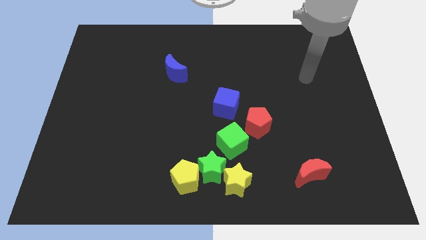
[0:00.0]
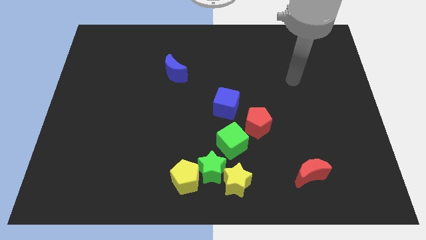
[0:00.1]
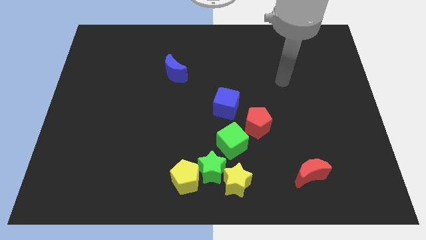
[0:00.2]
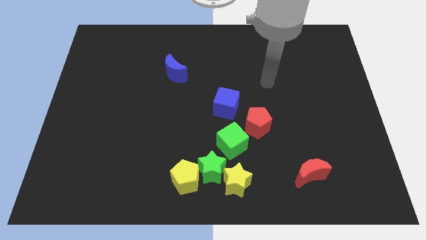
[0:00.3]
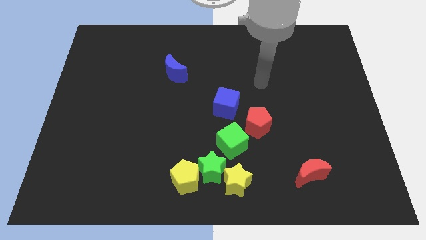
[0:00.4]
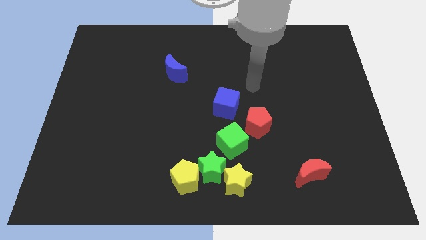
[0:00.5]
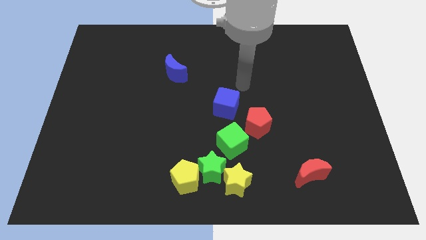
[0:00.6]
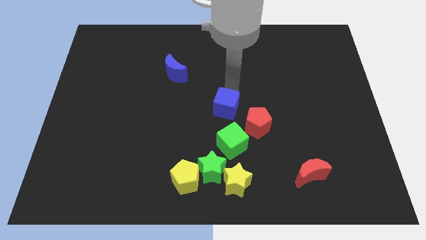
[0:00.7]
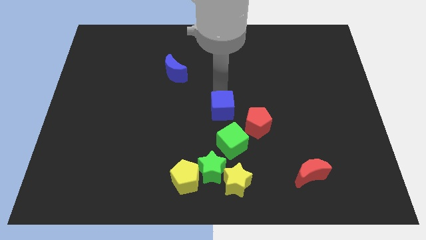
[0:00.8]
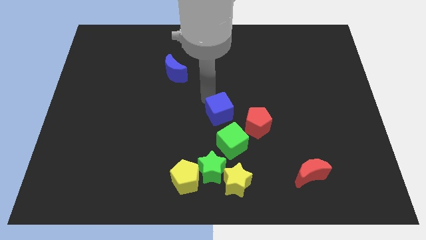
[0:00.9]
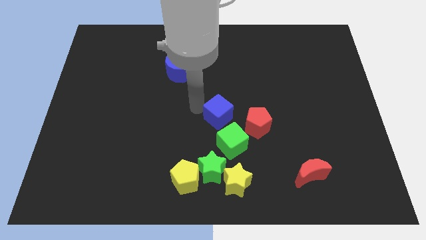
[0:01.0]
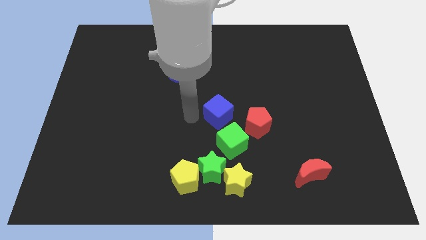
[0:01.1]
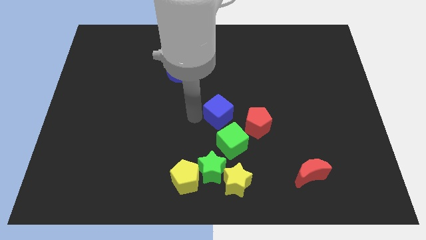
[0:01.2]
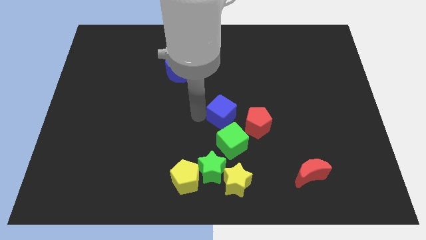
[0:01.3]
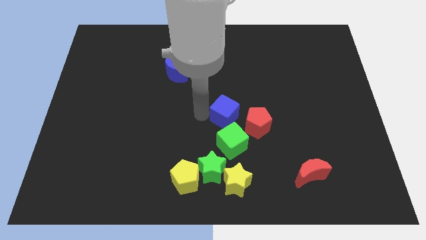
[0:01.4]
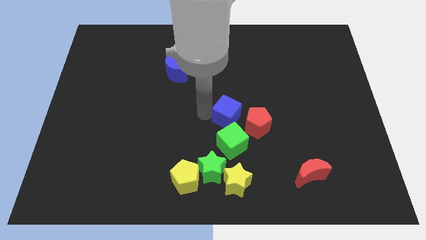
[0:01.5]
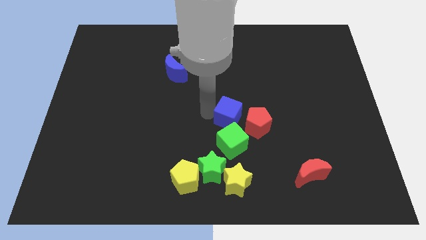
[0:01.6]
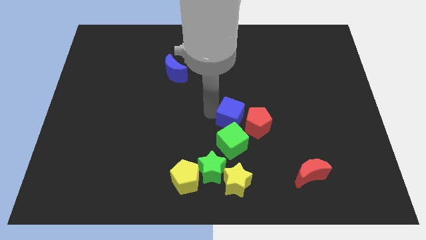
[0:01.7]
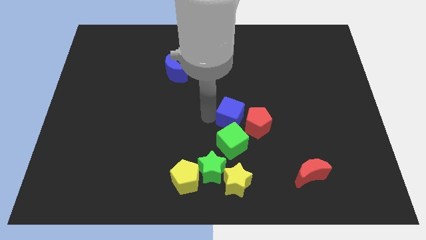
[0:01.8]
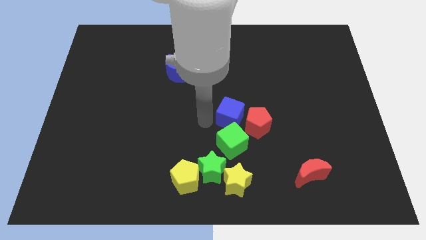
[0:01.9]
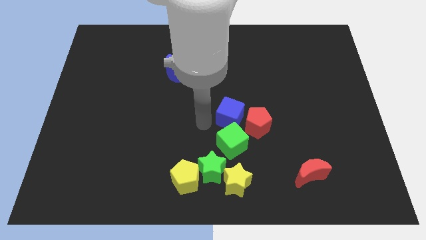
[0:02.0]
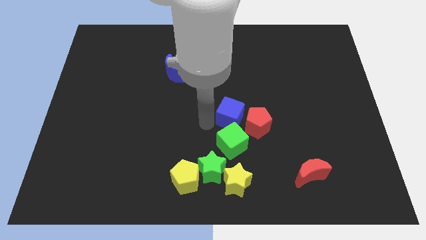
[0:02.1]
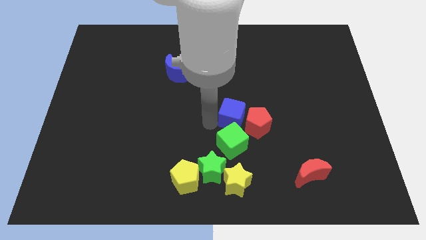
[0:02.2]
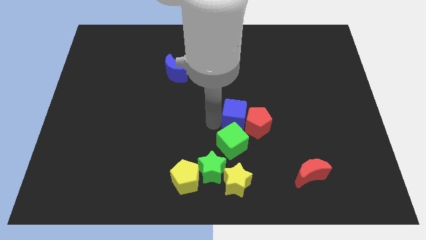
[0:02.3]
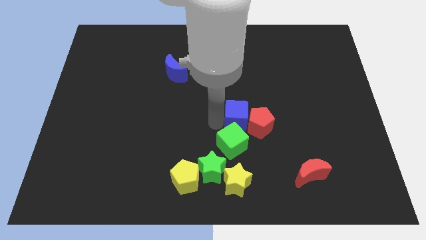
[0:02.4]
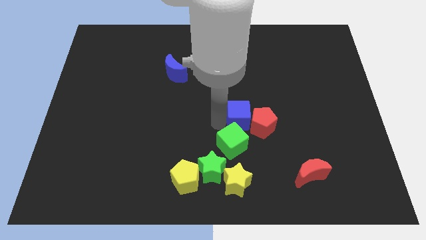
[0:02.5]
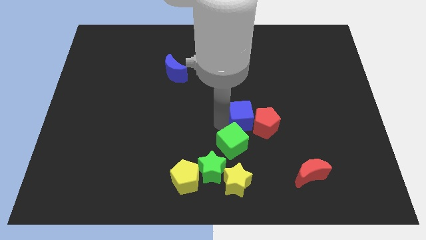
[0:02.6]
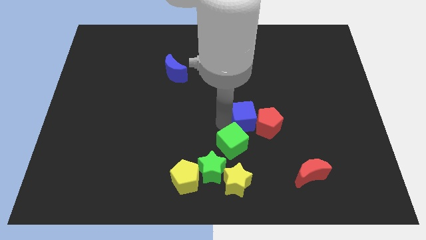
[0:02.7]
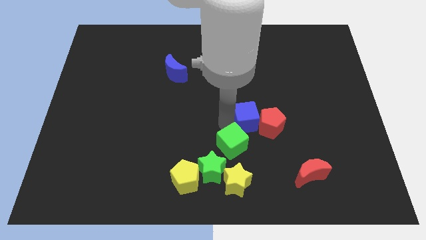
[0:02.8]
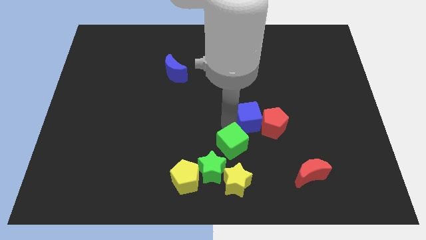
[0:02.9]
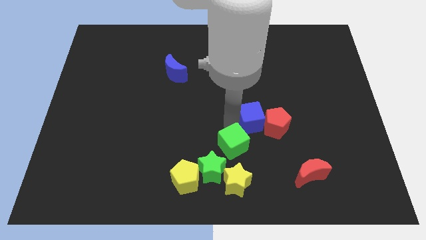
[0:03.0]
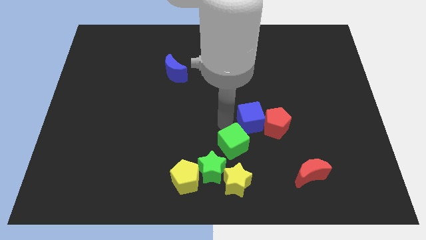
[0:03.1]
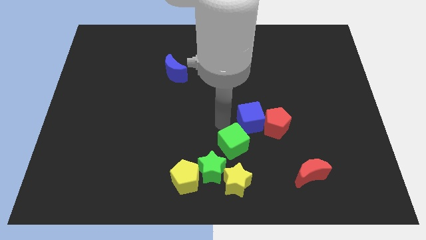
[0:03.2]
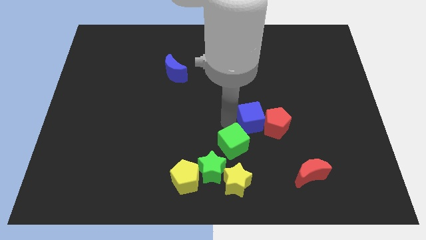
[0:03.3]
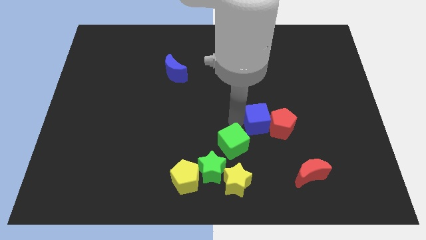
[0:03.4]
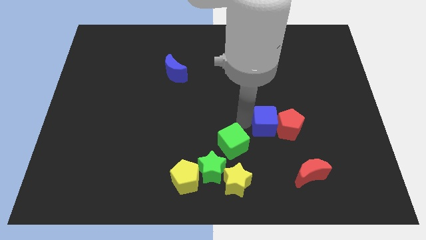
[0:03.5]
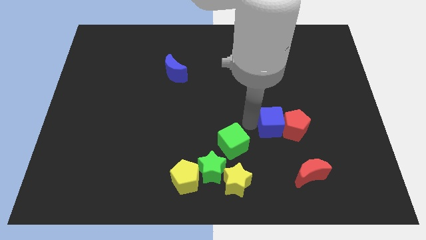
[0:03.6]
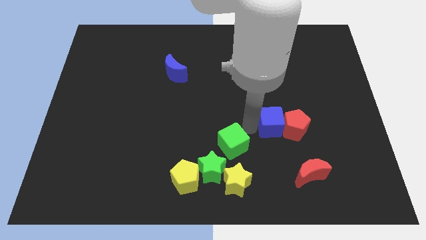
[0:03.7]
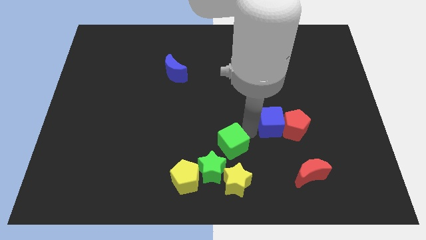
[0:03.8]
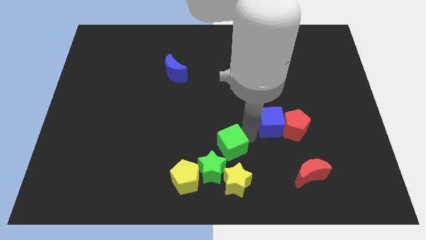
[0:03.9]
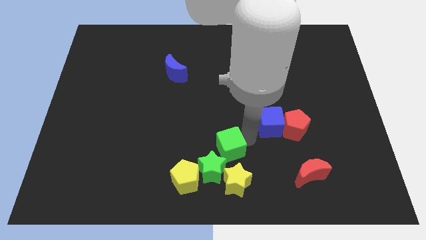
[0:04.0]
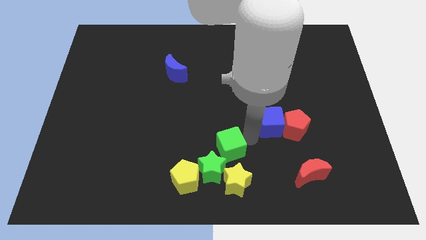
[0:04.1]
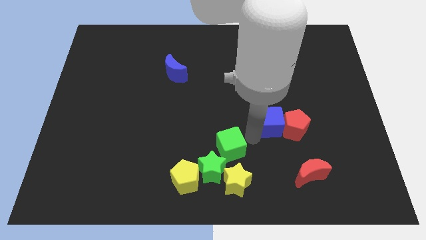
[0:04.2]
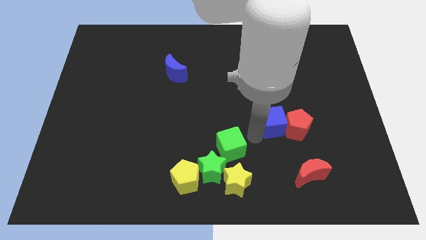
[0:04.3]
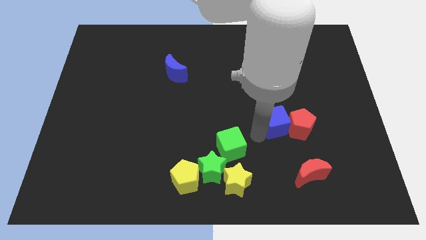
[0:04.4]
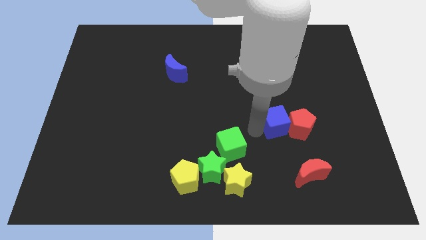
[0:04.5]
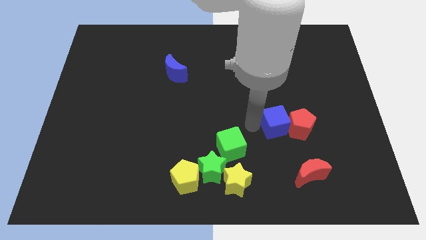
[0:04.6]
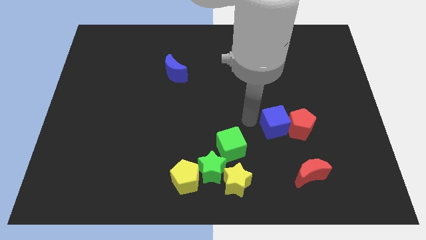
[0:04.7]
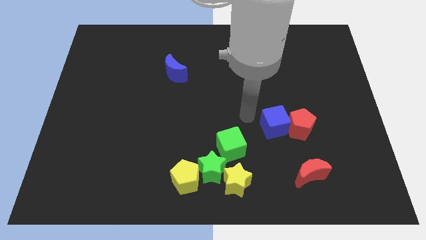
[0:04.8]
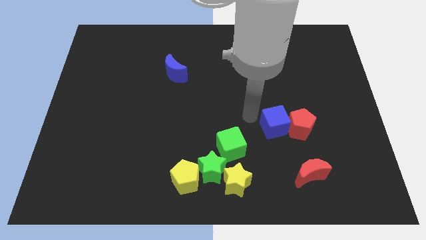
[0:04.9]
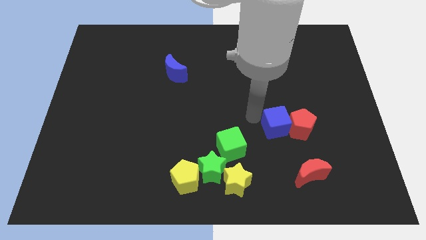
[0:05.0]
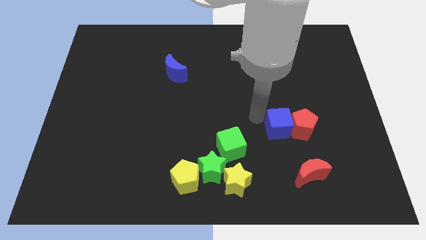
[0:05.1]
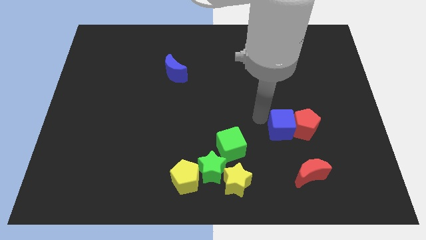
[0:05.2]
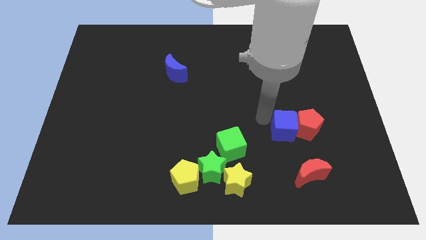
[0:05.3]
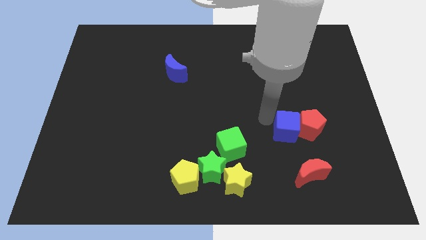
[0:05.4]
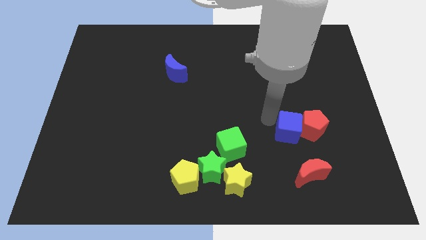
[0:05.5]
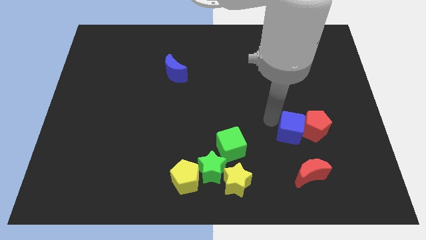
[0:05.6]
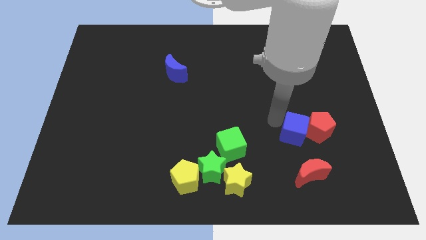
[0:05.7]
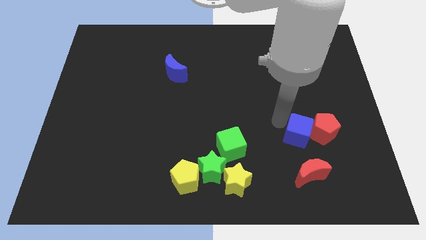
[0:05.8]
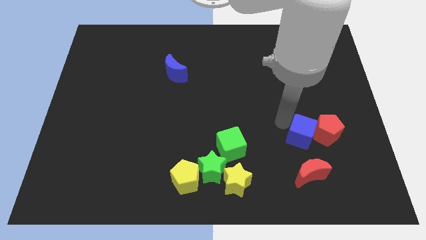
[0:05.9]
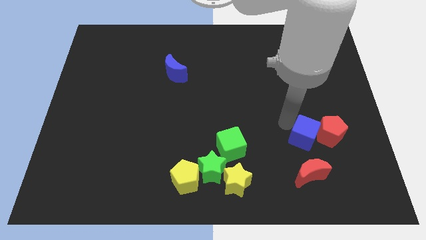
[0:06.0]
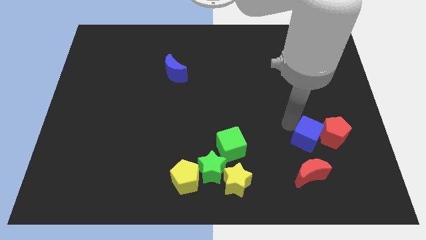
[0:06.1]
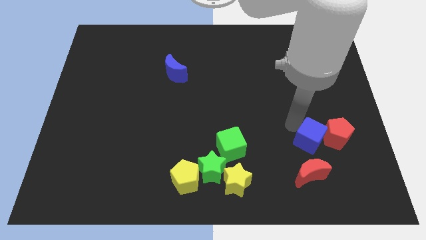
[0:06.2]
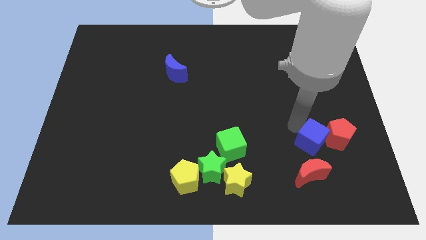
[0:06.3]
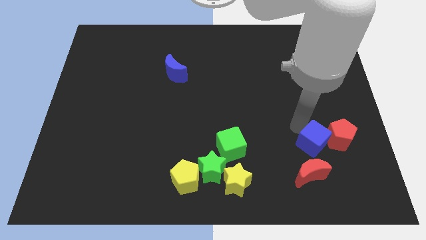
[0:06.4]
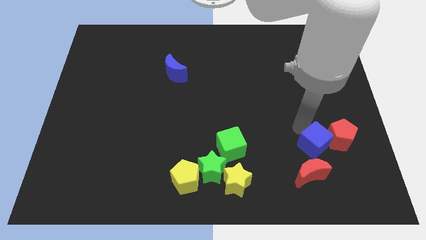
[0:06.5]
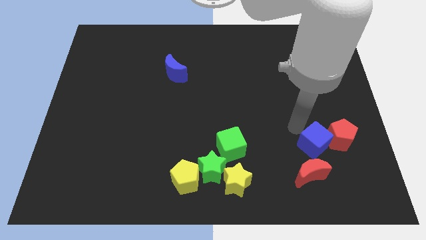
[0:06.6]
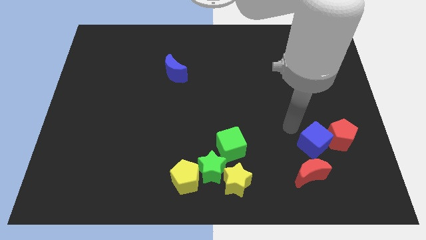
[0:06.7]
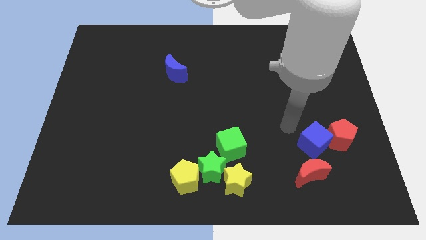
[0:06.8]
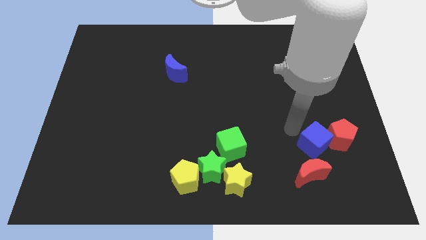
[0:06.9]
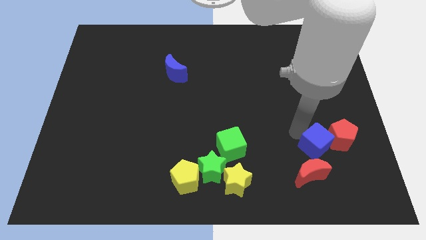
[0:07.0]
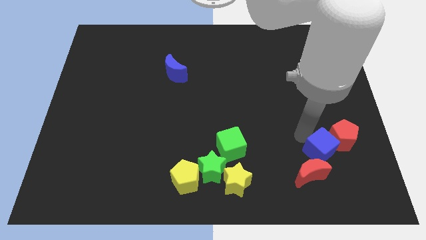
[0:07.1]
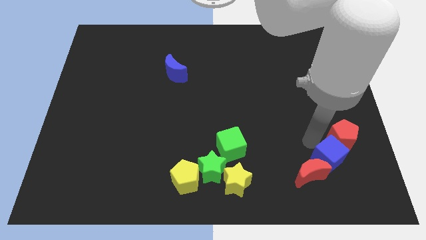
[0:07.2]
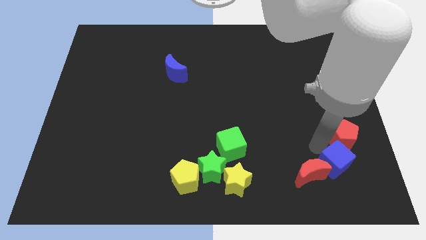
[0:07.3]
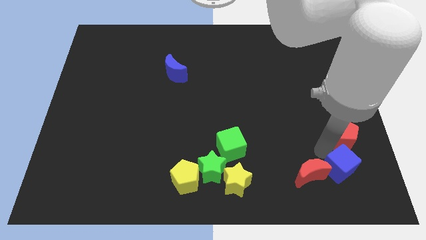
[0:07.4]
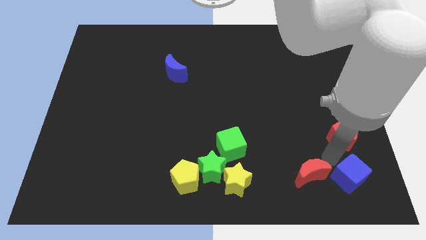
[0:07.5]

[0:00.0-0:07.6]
put the blue cube to the bottom right of the board
